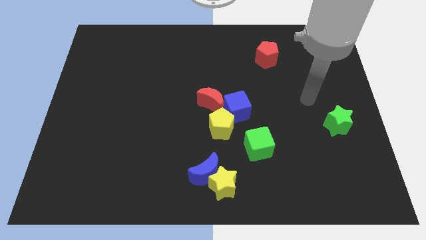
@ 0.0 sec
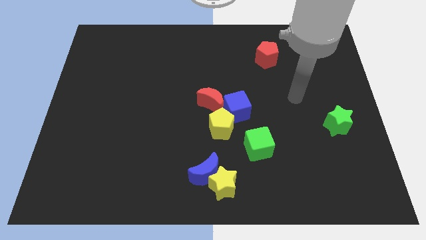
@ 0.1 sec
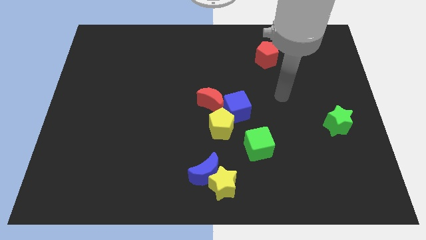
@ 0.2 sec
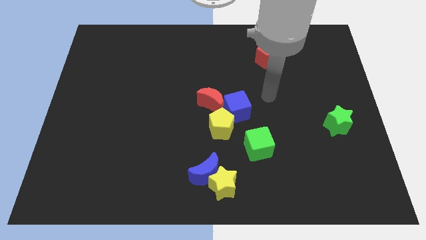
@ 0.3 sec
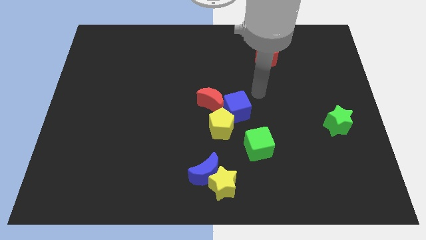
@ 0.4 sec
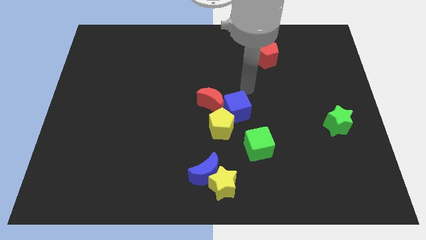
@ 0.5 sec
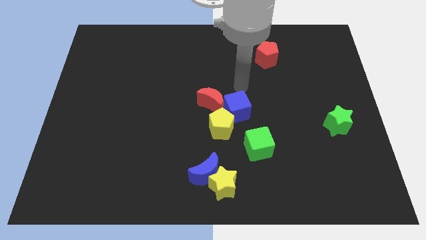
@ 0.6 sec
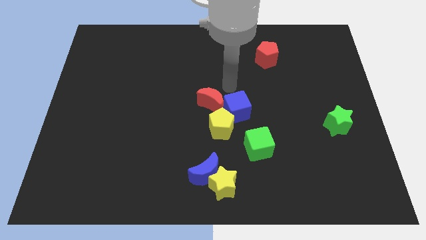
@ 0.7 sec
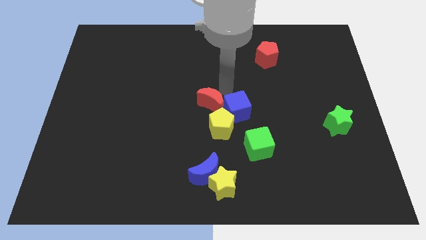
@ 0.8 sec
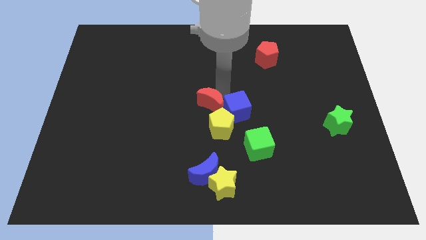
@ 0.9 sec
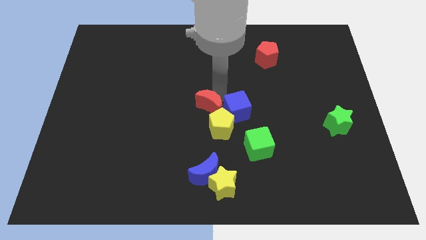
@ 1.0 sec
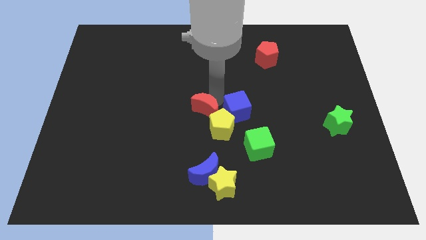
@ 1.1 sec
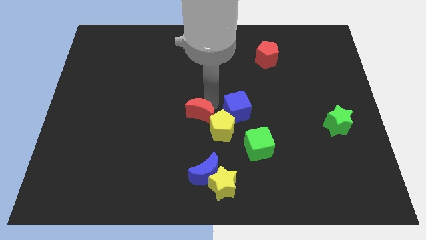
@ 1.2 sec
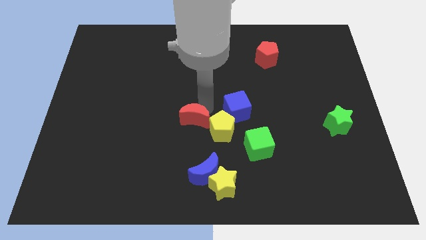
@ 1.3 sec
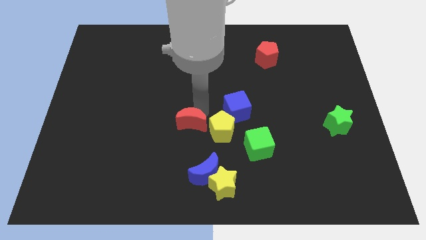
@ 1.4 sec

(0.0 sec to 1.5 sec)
push the red moon a bit diagonally downwards and to the left

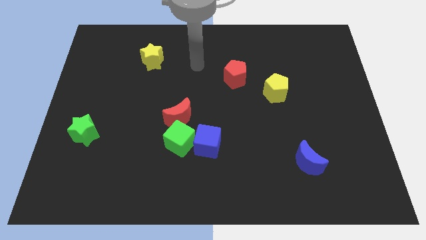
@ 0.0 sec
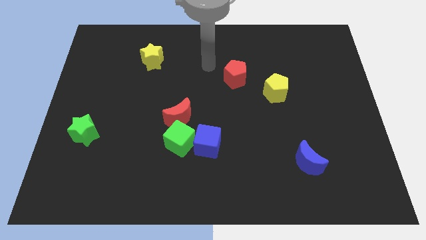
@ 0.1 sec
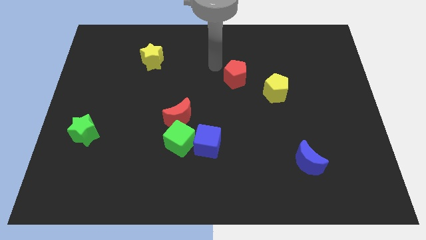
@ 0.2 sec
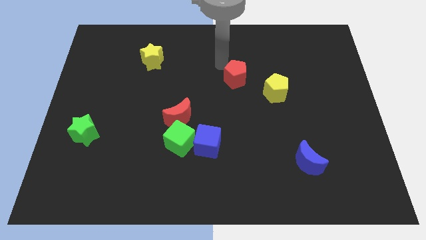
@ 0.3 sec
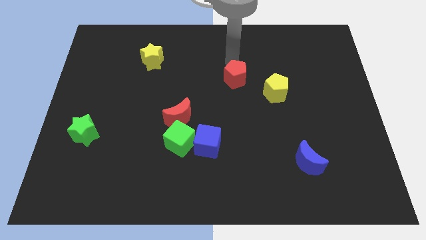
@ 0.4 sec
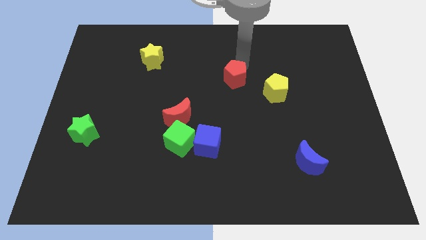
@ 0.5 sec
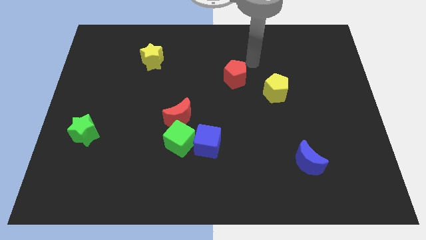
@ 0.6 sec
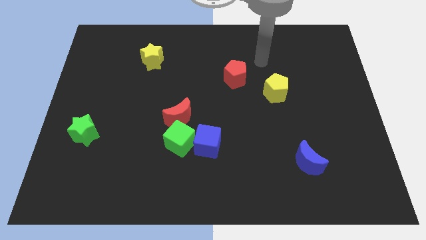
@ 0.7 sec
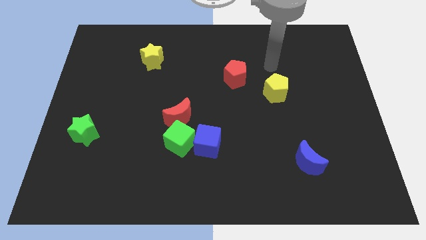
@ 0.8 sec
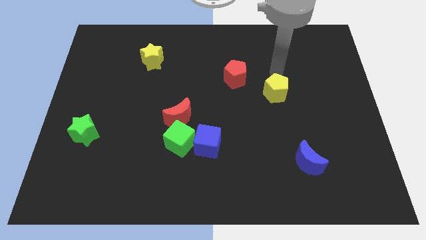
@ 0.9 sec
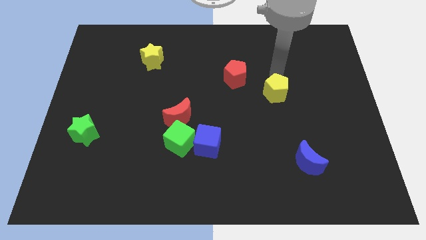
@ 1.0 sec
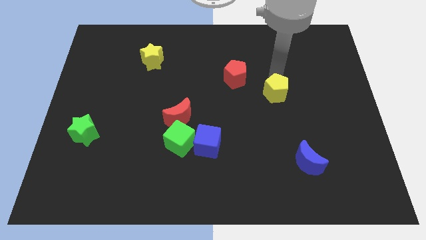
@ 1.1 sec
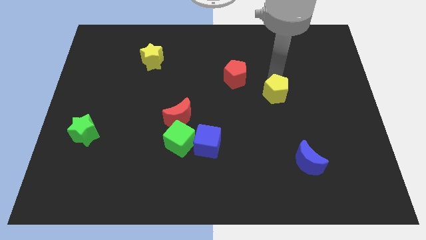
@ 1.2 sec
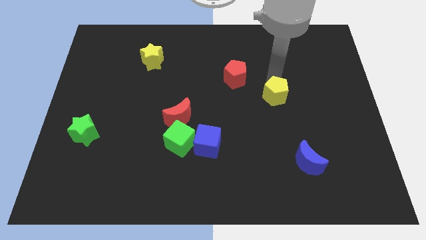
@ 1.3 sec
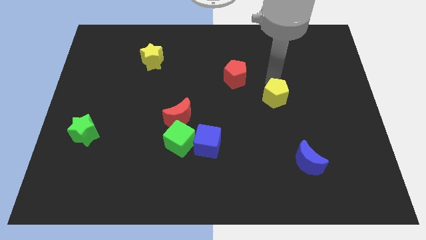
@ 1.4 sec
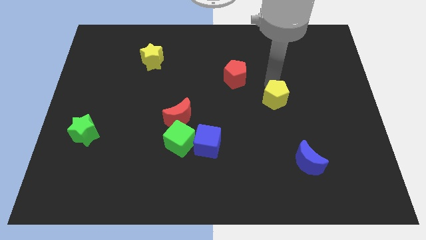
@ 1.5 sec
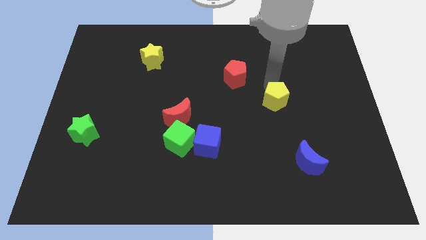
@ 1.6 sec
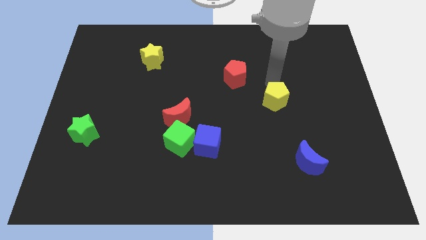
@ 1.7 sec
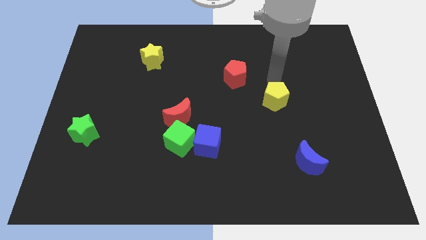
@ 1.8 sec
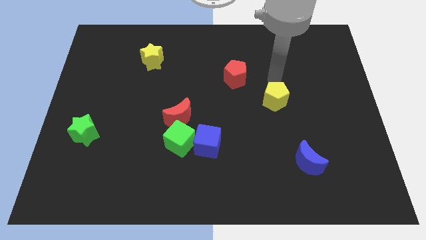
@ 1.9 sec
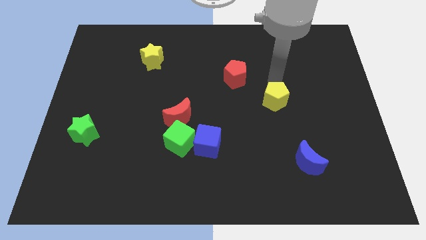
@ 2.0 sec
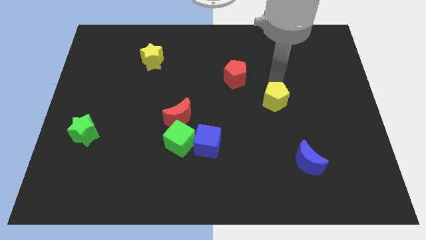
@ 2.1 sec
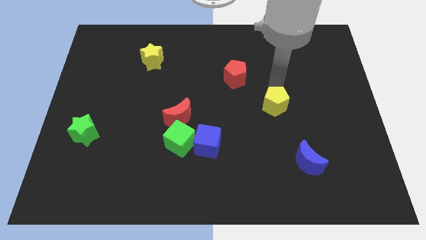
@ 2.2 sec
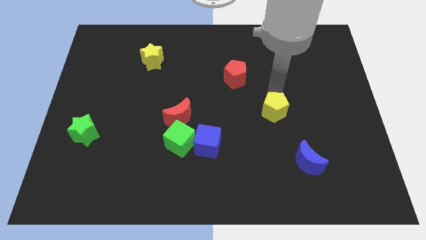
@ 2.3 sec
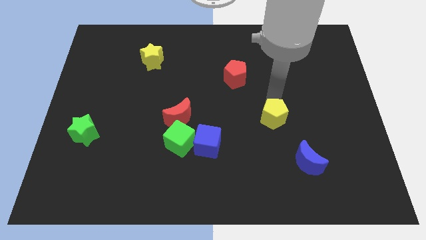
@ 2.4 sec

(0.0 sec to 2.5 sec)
push the yellow pentagon down a little

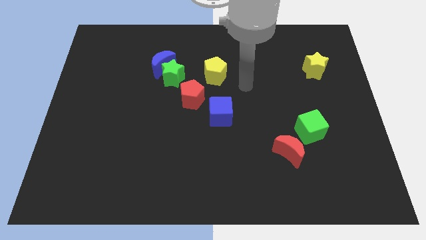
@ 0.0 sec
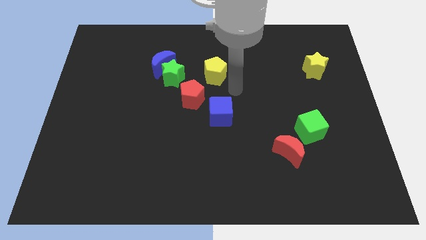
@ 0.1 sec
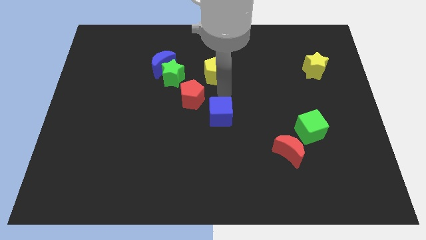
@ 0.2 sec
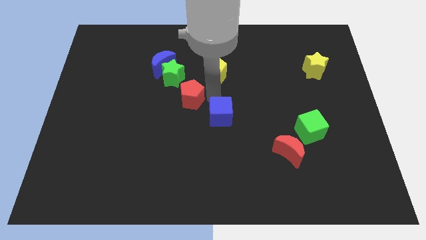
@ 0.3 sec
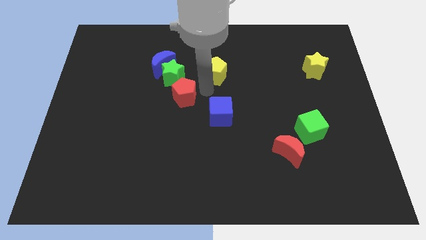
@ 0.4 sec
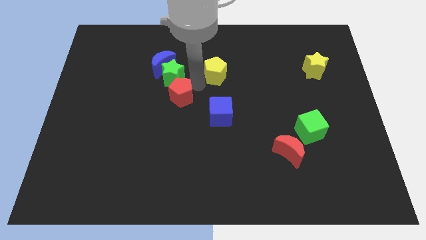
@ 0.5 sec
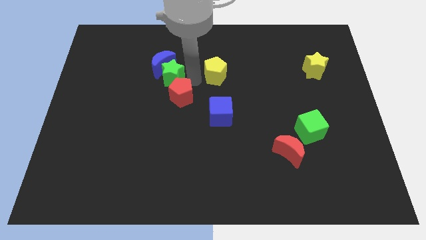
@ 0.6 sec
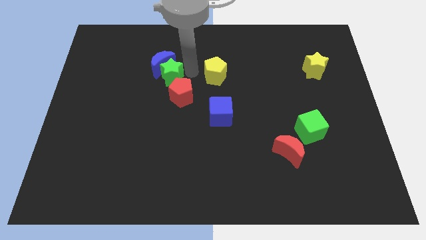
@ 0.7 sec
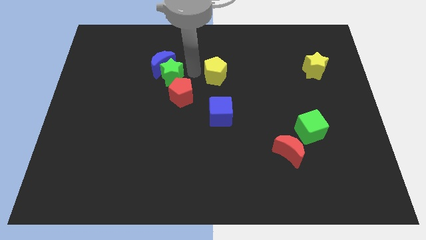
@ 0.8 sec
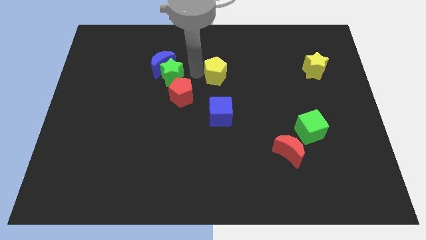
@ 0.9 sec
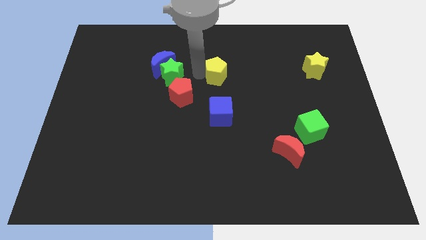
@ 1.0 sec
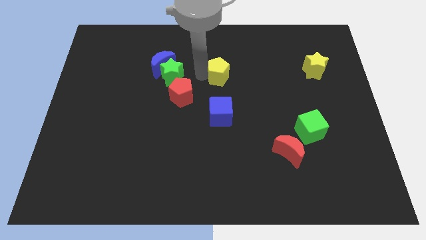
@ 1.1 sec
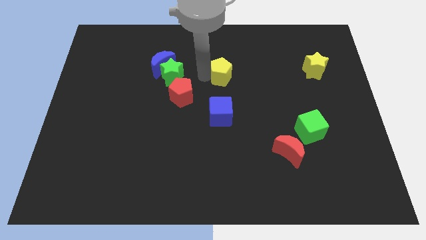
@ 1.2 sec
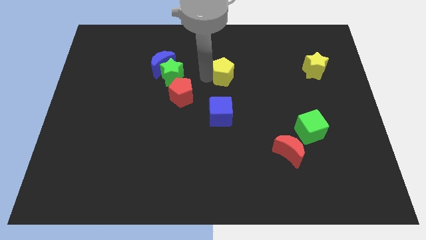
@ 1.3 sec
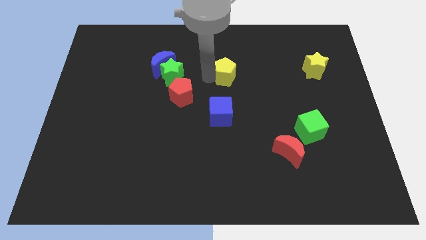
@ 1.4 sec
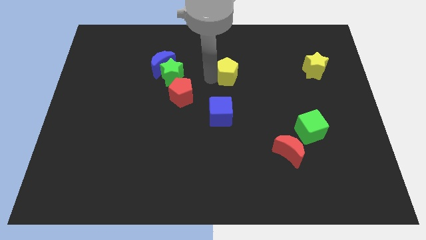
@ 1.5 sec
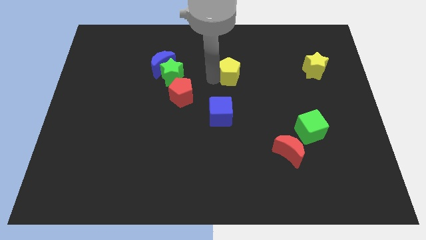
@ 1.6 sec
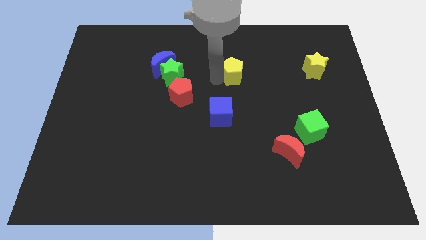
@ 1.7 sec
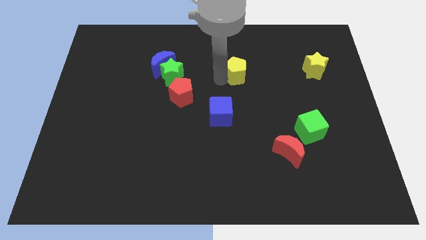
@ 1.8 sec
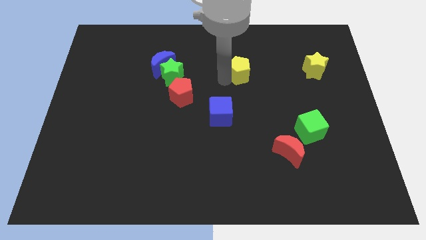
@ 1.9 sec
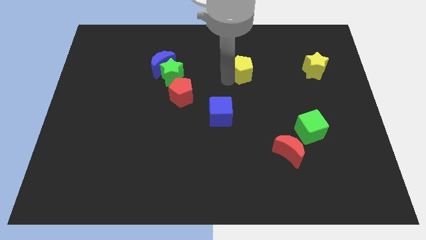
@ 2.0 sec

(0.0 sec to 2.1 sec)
move the yellow pentagon to the right a little

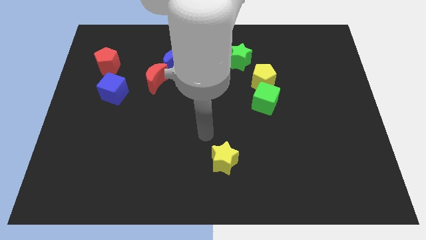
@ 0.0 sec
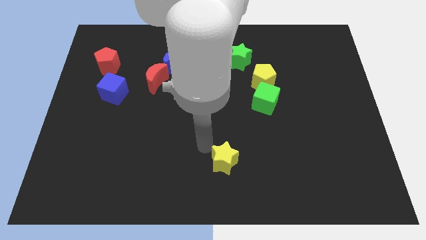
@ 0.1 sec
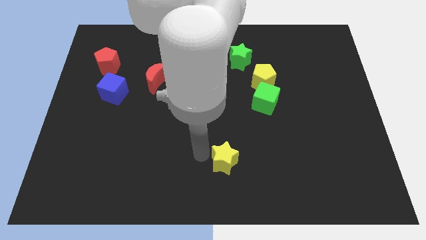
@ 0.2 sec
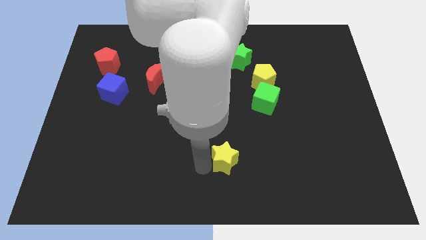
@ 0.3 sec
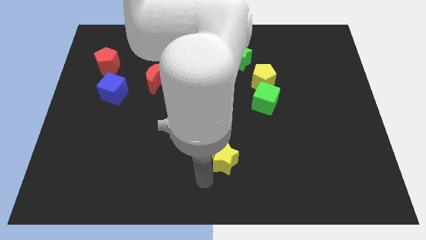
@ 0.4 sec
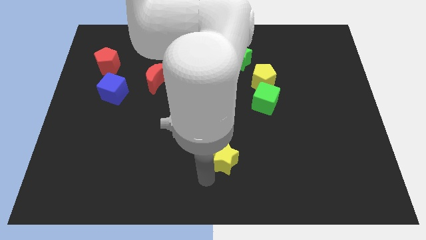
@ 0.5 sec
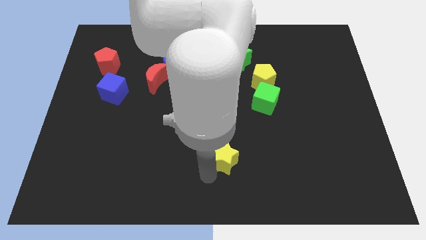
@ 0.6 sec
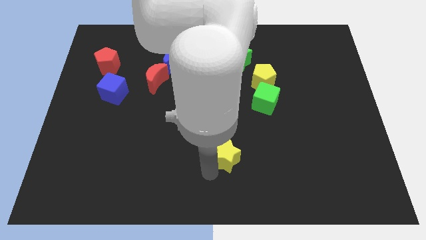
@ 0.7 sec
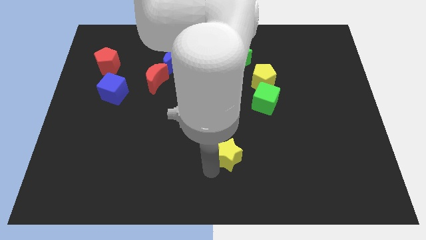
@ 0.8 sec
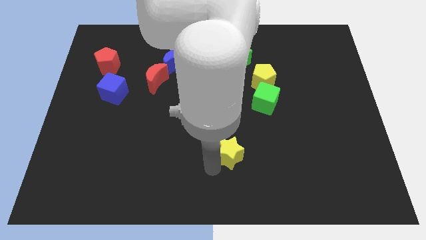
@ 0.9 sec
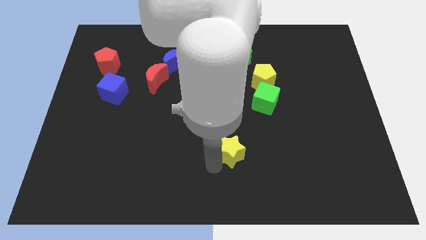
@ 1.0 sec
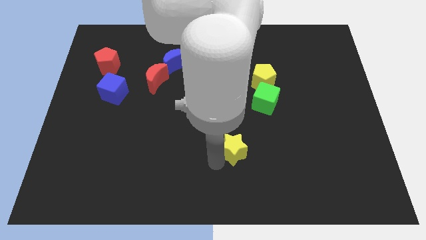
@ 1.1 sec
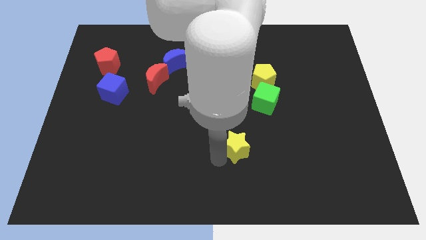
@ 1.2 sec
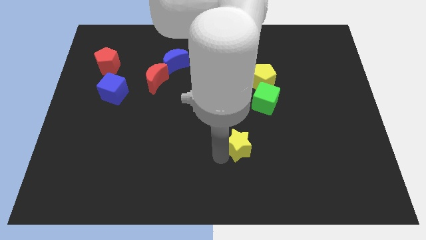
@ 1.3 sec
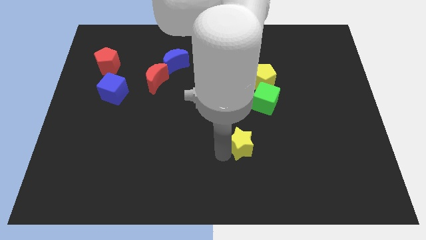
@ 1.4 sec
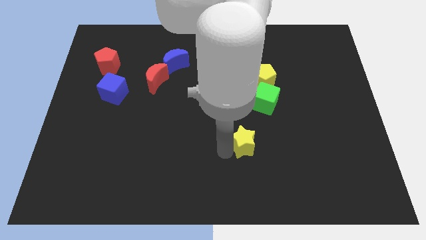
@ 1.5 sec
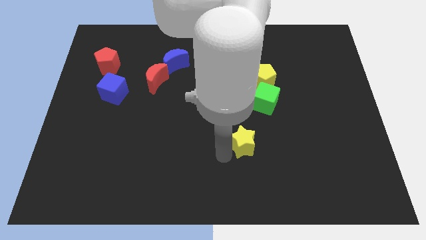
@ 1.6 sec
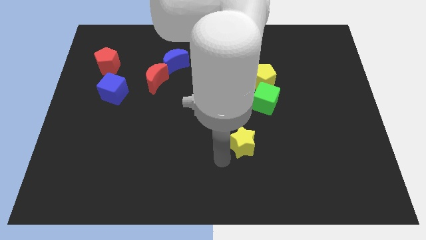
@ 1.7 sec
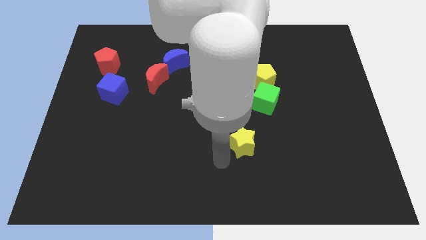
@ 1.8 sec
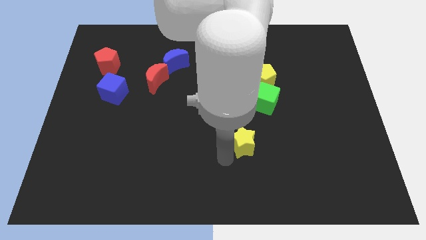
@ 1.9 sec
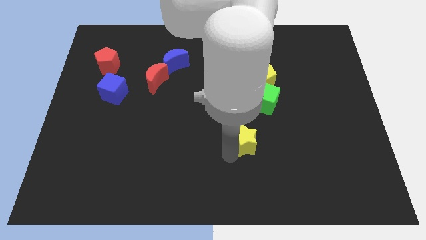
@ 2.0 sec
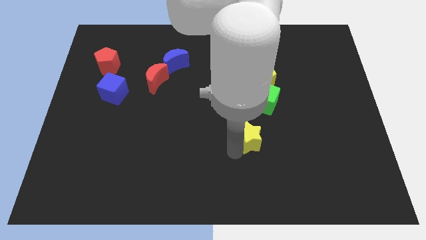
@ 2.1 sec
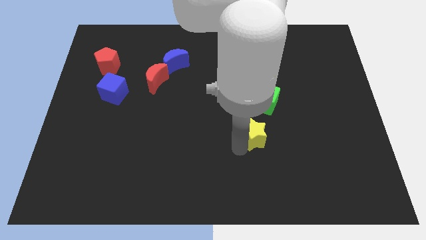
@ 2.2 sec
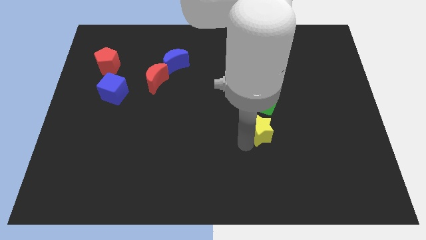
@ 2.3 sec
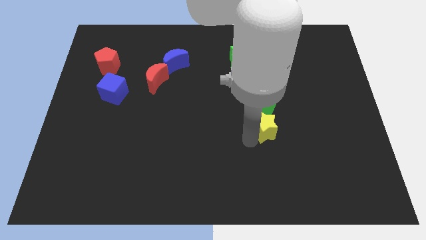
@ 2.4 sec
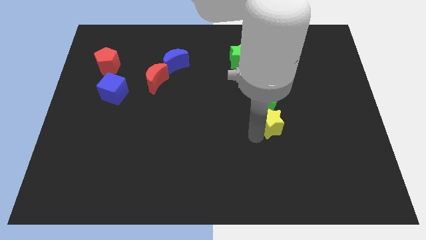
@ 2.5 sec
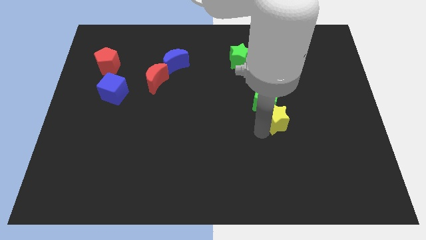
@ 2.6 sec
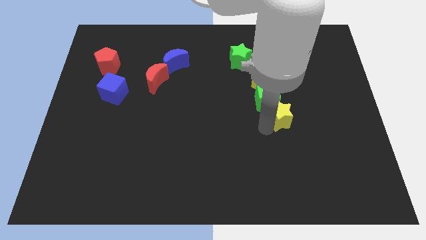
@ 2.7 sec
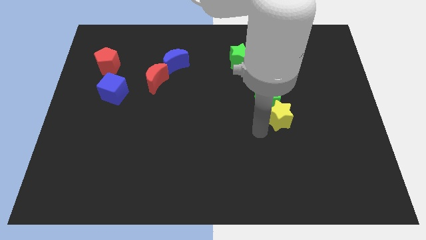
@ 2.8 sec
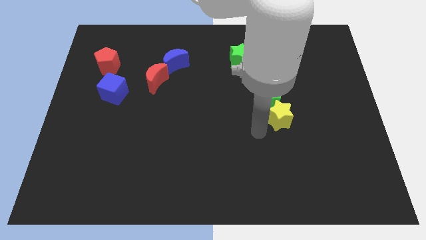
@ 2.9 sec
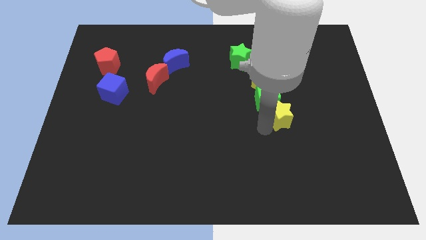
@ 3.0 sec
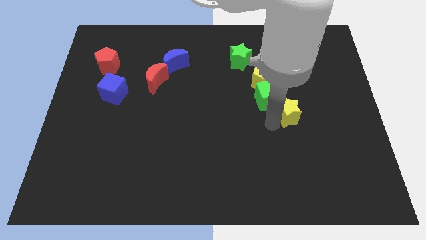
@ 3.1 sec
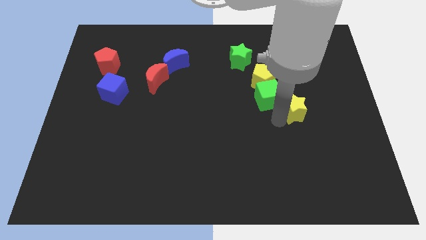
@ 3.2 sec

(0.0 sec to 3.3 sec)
slide the yellow star diagonally up and right
